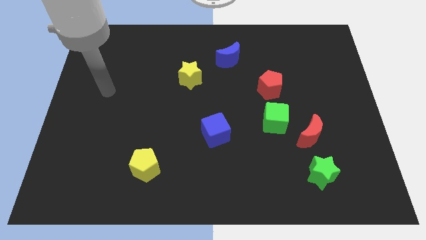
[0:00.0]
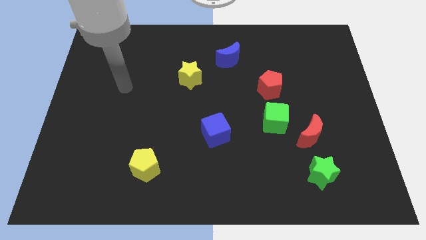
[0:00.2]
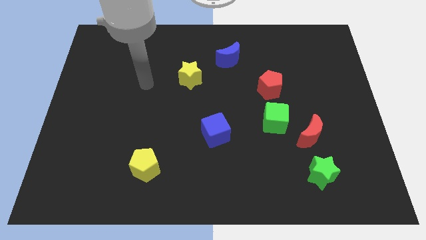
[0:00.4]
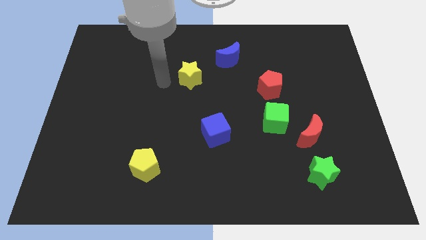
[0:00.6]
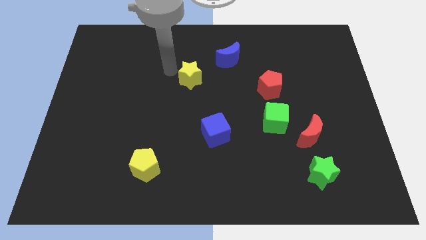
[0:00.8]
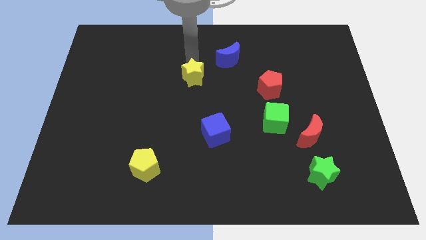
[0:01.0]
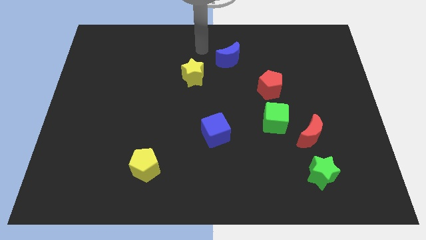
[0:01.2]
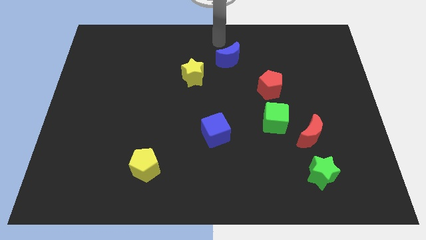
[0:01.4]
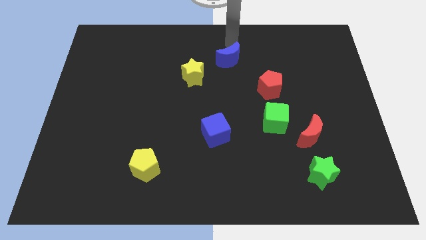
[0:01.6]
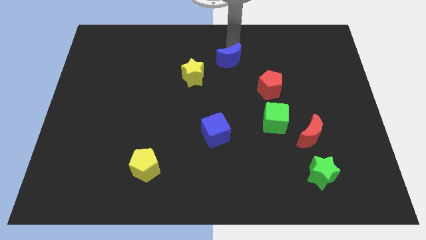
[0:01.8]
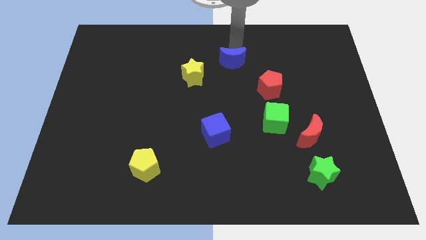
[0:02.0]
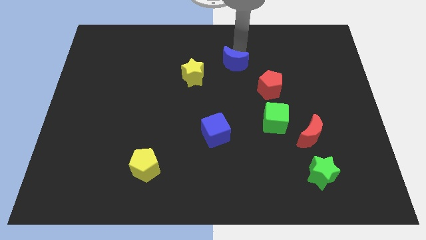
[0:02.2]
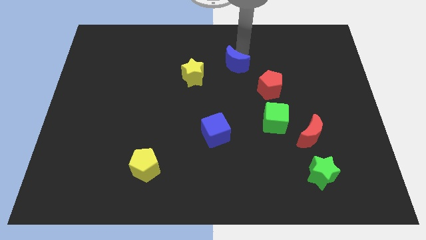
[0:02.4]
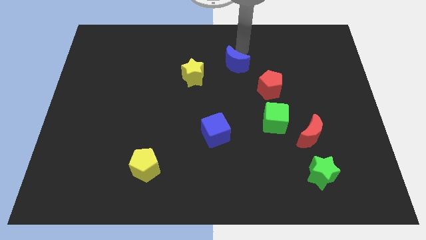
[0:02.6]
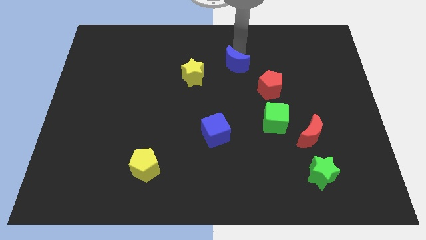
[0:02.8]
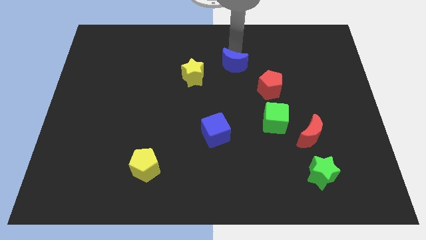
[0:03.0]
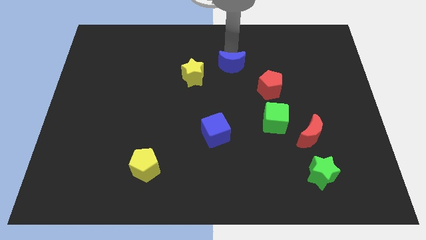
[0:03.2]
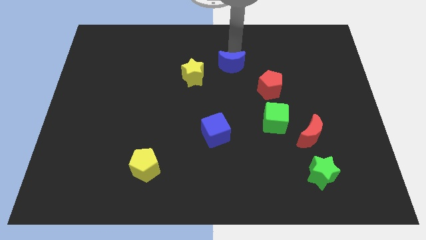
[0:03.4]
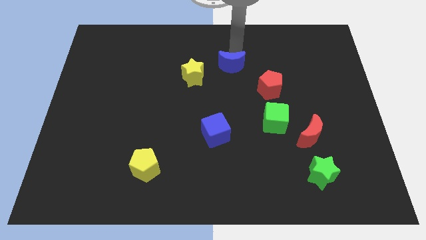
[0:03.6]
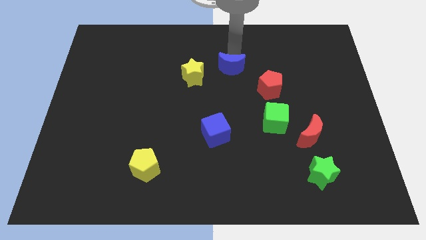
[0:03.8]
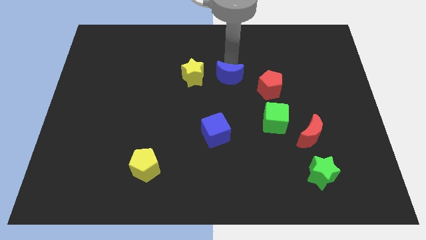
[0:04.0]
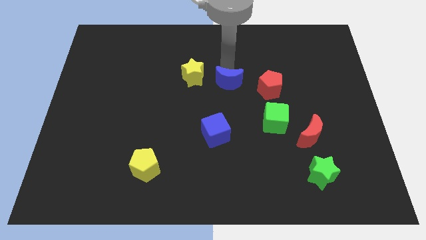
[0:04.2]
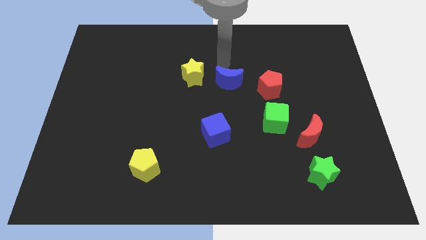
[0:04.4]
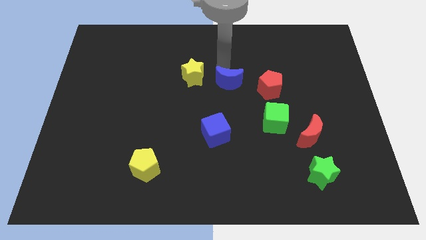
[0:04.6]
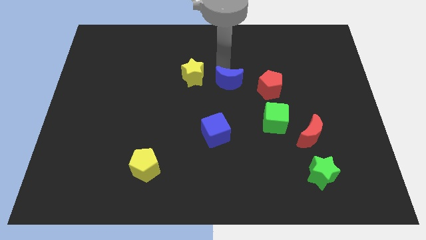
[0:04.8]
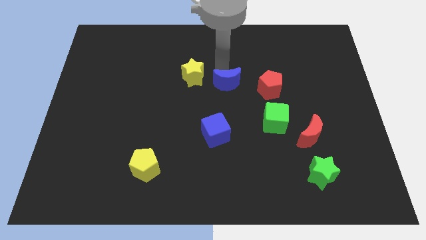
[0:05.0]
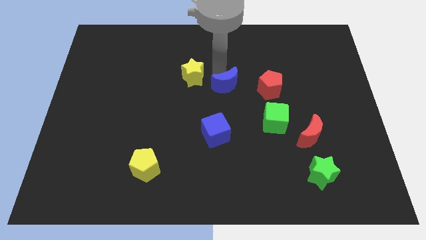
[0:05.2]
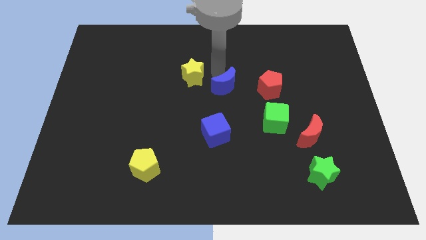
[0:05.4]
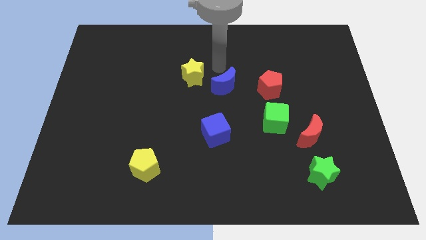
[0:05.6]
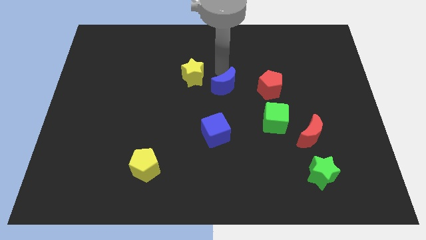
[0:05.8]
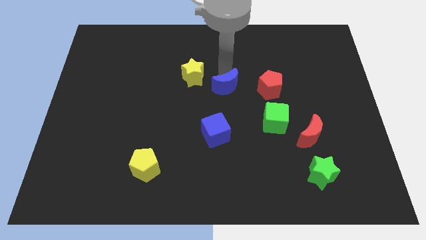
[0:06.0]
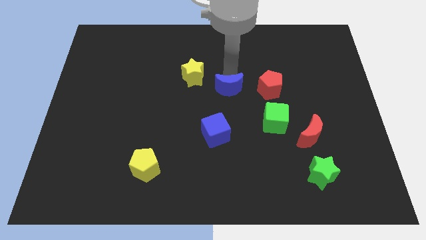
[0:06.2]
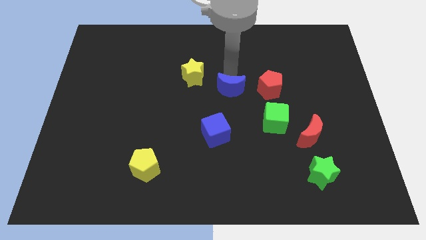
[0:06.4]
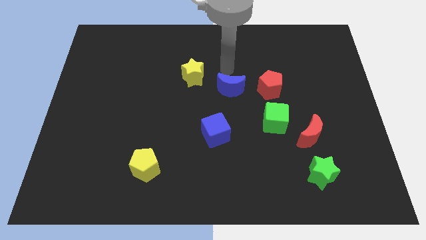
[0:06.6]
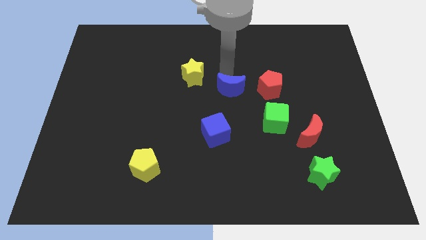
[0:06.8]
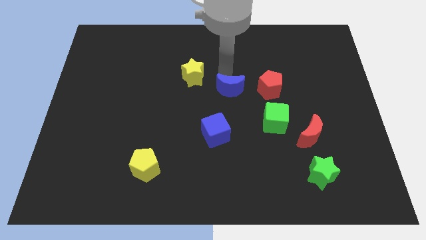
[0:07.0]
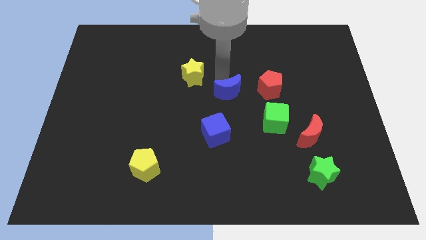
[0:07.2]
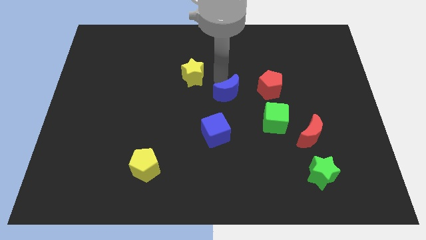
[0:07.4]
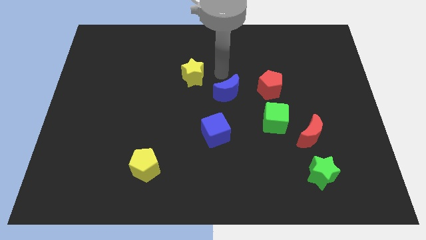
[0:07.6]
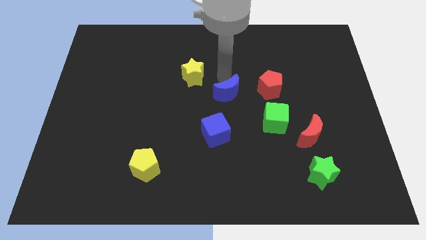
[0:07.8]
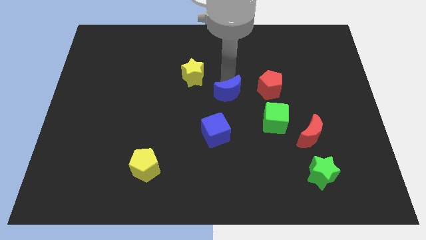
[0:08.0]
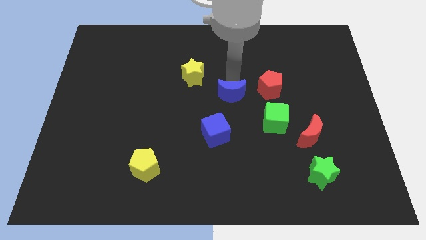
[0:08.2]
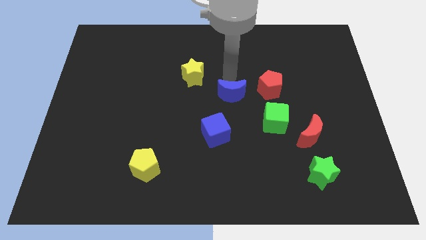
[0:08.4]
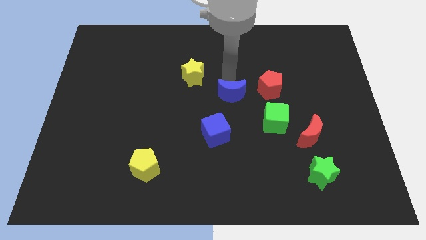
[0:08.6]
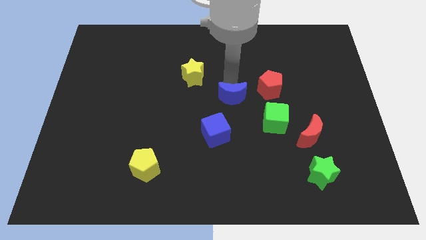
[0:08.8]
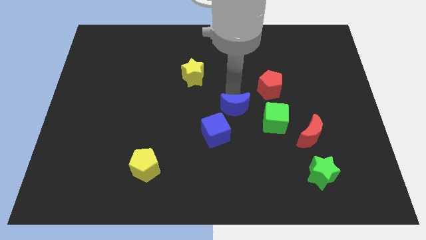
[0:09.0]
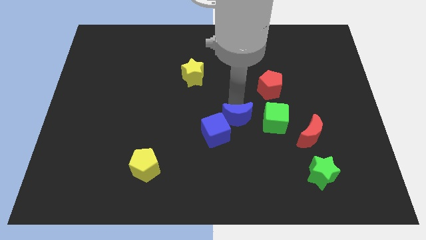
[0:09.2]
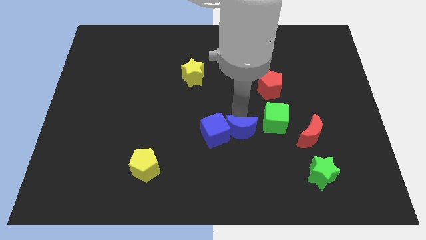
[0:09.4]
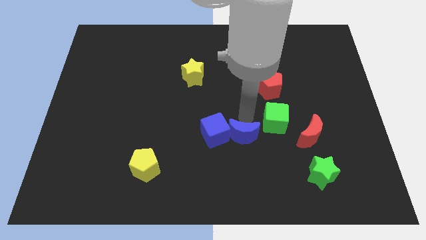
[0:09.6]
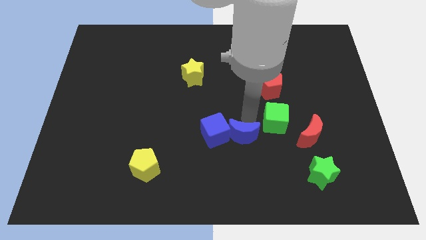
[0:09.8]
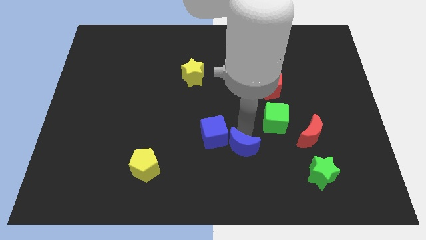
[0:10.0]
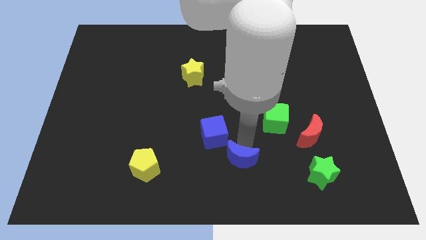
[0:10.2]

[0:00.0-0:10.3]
slide the blue moon to the bottom

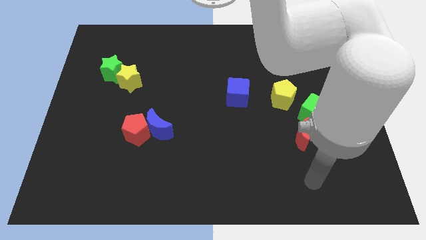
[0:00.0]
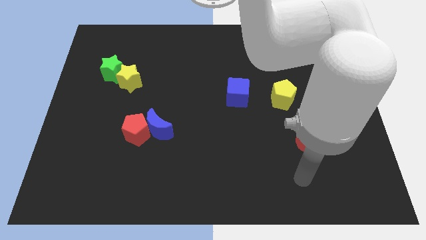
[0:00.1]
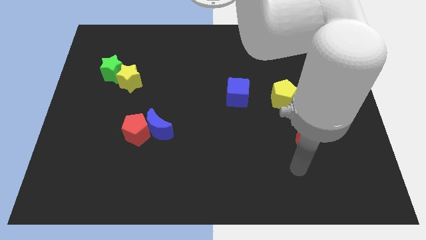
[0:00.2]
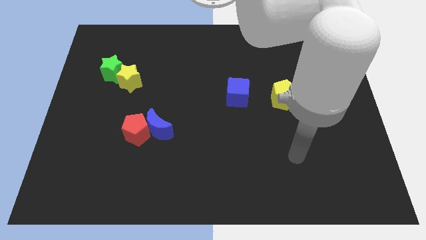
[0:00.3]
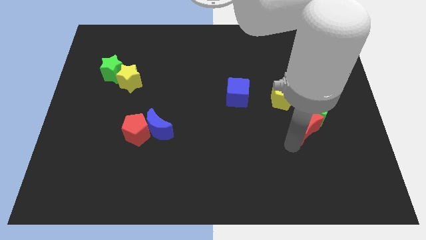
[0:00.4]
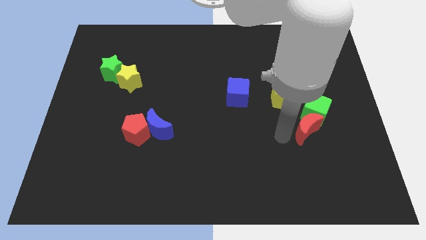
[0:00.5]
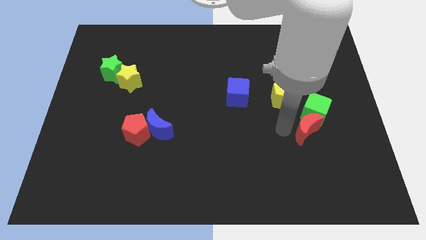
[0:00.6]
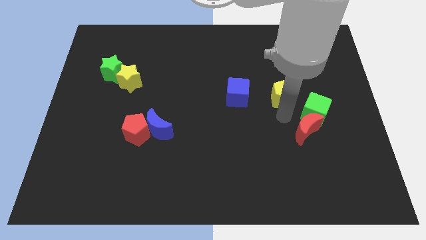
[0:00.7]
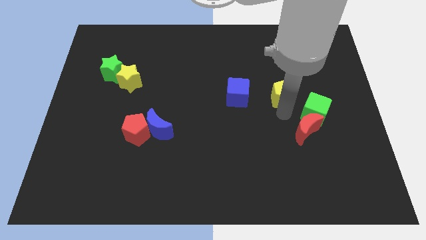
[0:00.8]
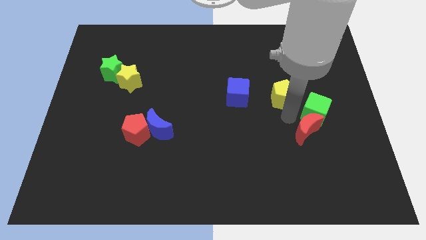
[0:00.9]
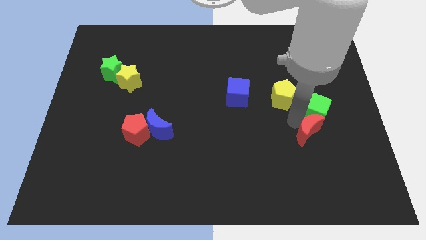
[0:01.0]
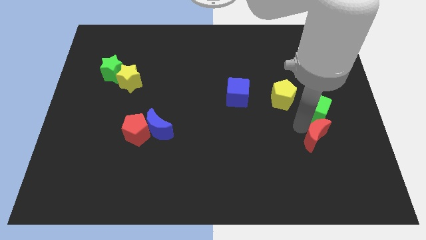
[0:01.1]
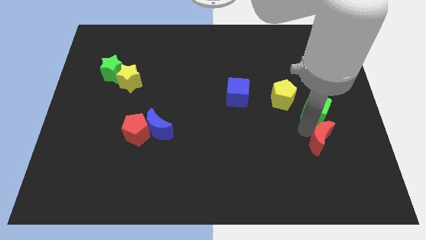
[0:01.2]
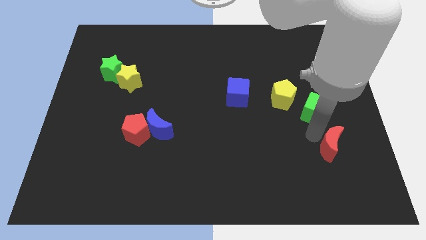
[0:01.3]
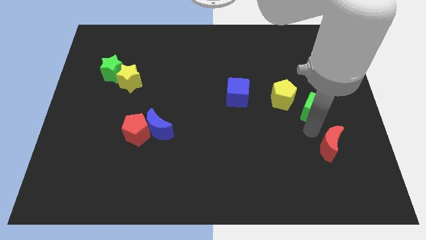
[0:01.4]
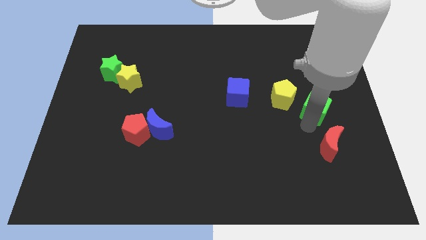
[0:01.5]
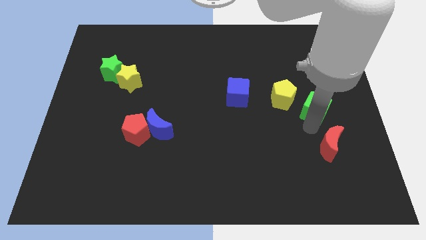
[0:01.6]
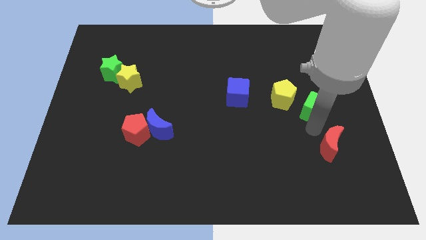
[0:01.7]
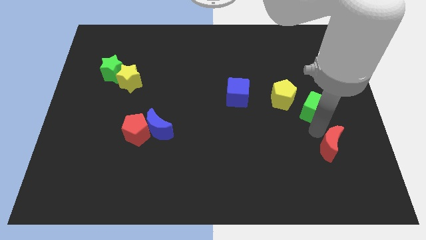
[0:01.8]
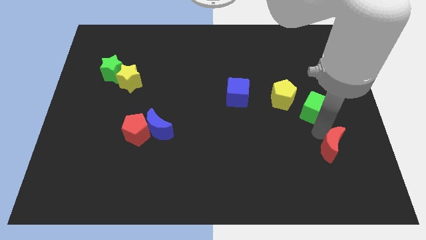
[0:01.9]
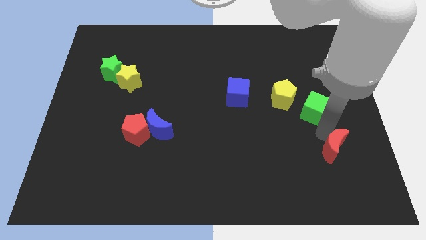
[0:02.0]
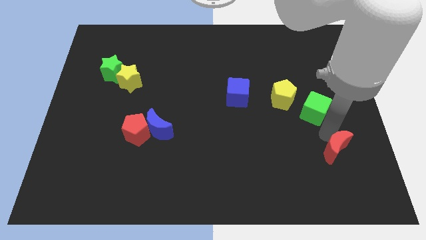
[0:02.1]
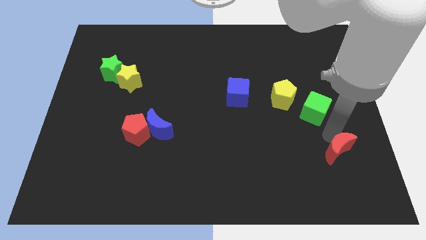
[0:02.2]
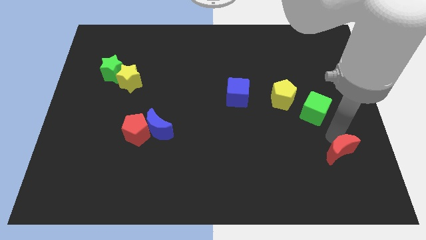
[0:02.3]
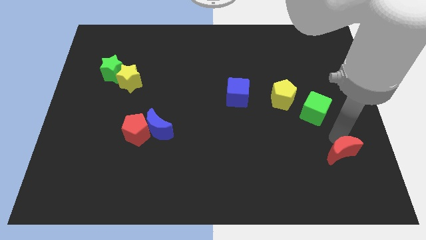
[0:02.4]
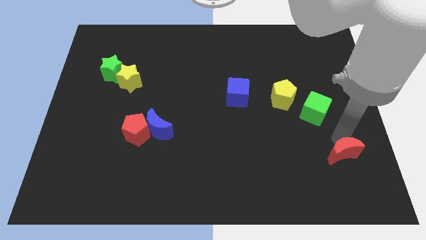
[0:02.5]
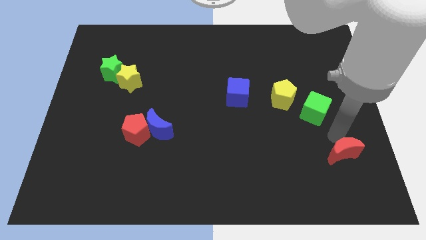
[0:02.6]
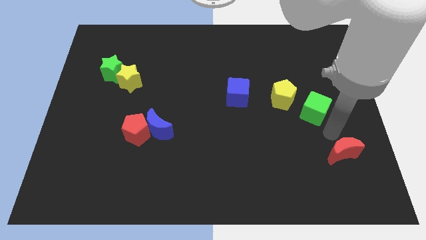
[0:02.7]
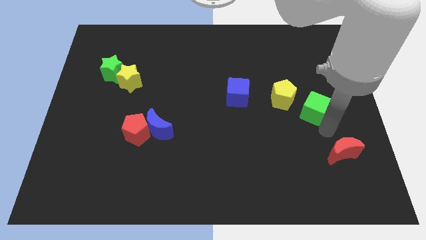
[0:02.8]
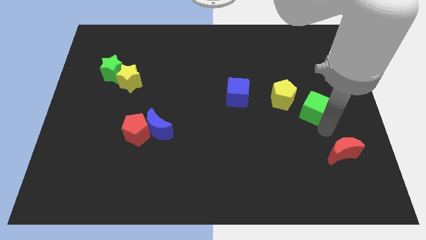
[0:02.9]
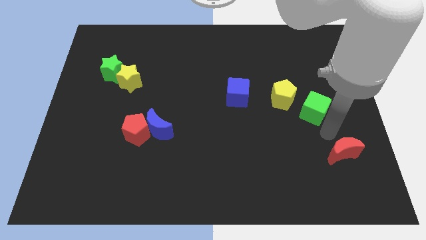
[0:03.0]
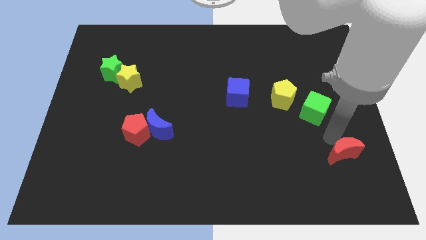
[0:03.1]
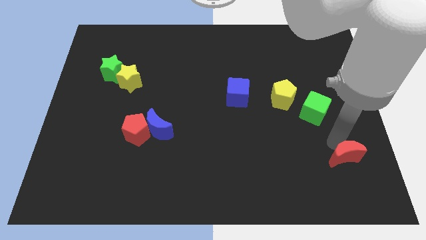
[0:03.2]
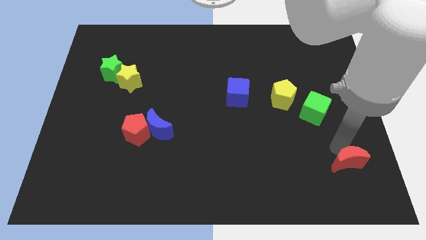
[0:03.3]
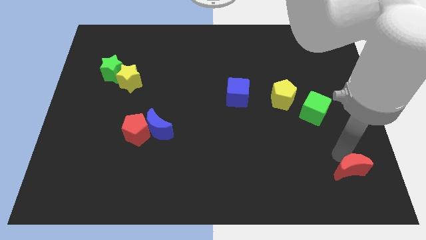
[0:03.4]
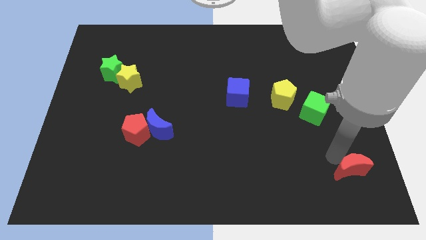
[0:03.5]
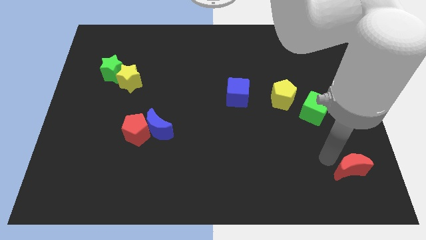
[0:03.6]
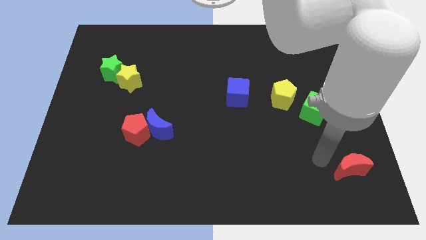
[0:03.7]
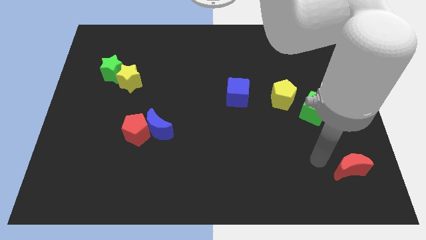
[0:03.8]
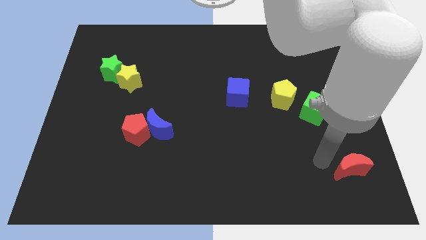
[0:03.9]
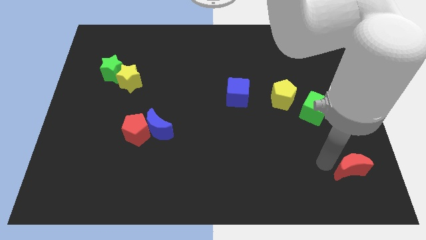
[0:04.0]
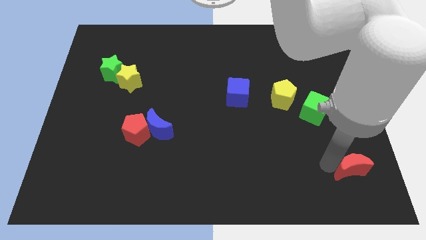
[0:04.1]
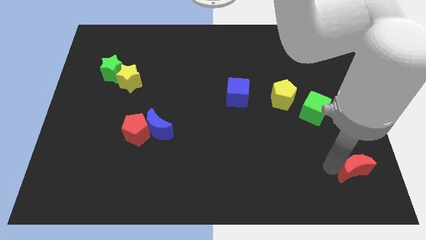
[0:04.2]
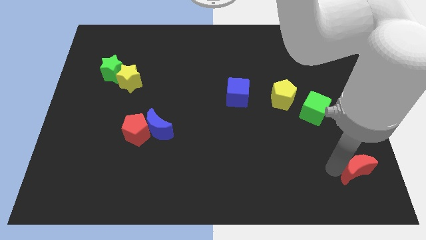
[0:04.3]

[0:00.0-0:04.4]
put the red moon to the lower right corner
